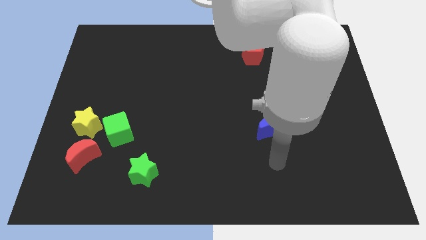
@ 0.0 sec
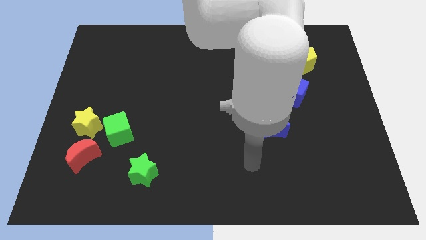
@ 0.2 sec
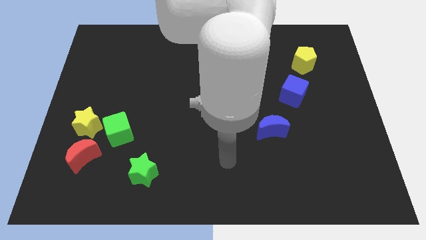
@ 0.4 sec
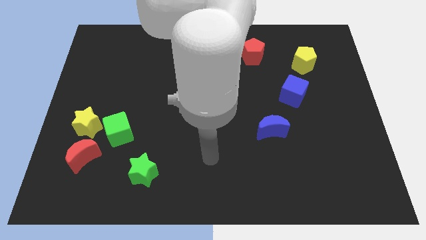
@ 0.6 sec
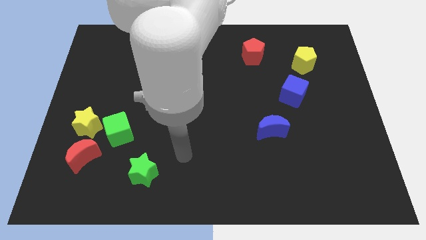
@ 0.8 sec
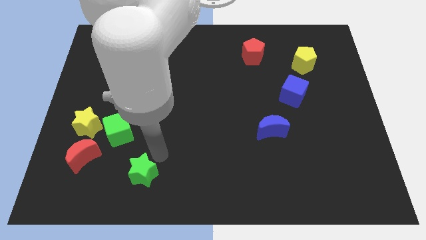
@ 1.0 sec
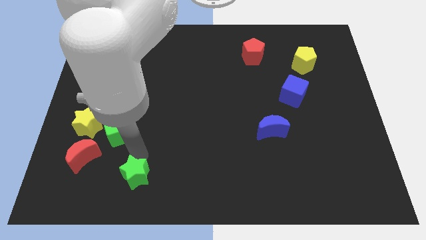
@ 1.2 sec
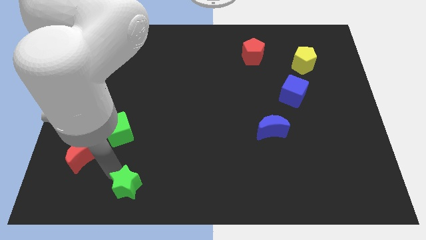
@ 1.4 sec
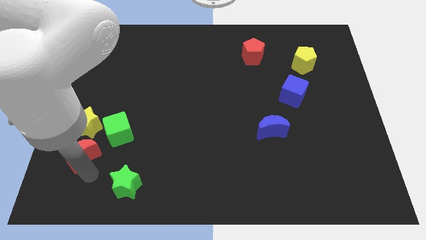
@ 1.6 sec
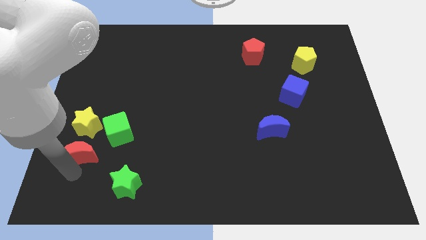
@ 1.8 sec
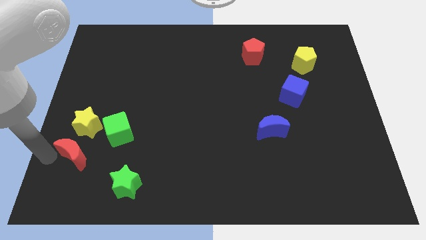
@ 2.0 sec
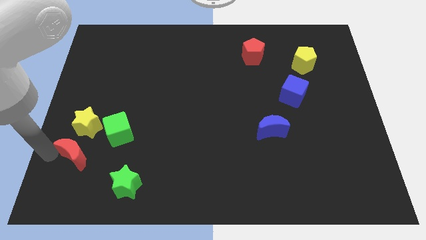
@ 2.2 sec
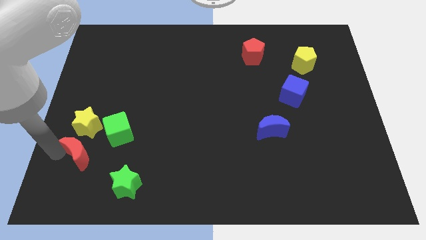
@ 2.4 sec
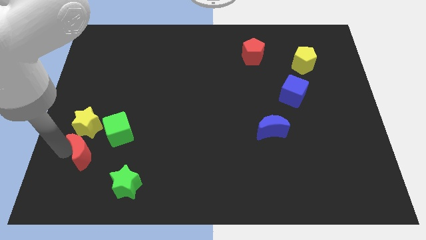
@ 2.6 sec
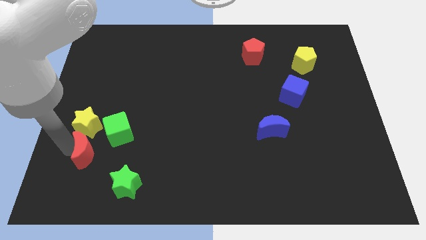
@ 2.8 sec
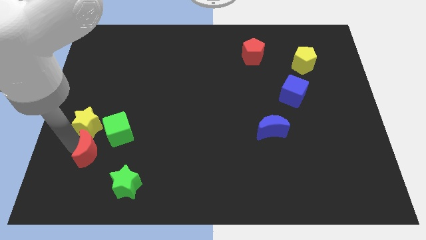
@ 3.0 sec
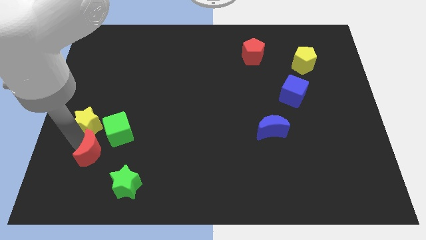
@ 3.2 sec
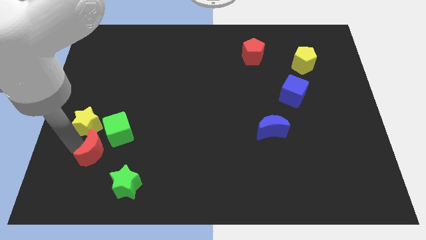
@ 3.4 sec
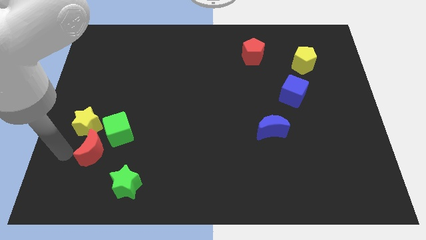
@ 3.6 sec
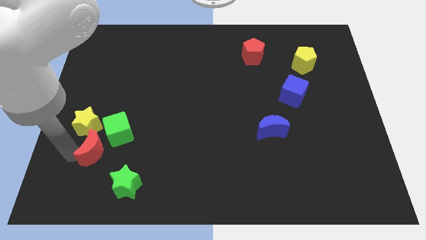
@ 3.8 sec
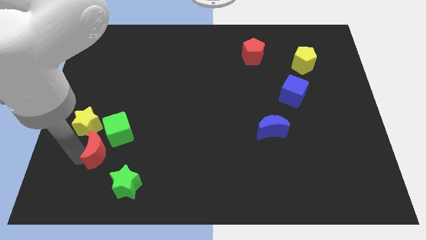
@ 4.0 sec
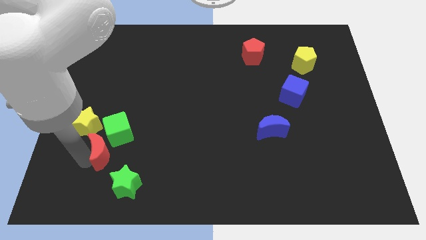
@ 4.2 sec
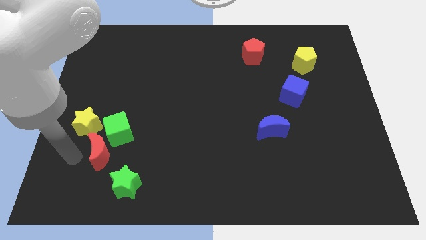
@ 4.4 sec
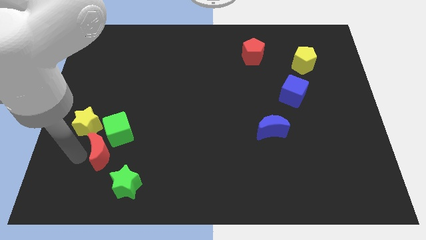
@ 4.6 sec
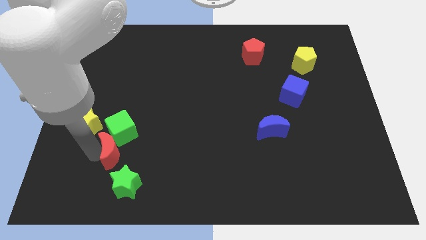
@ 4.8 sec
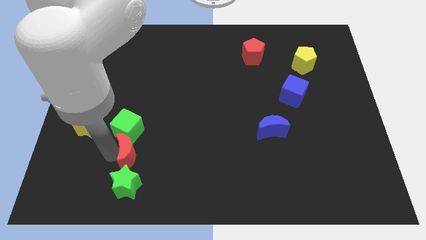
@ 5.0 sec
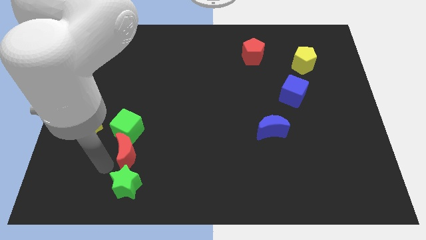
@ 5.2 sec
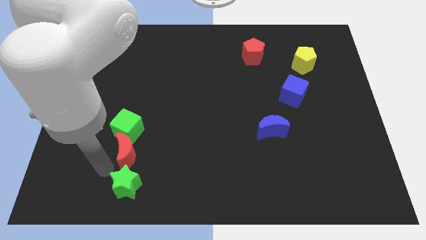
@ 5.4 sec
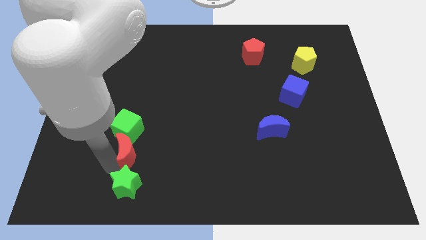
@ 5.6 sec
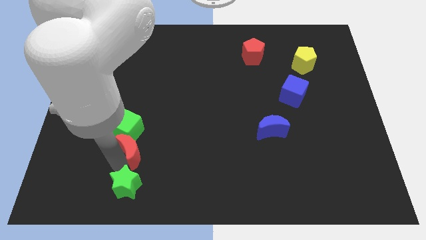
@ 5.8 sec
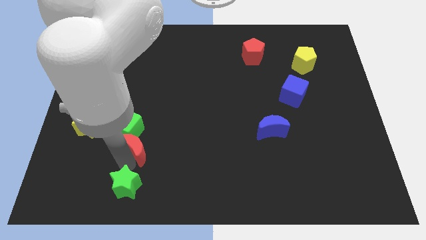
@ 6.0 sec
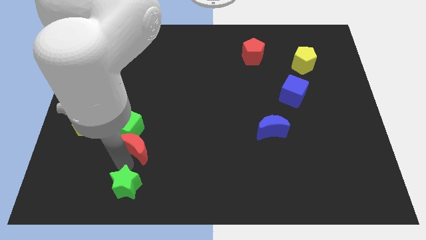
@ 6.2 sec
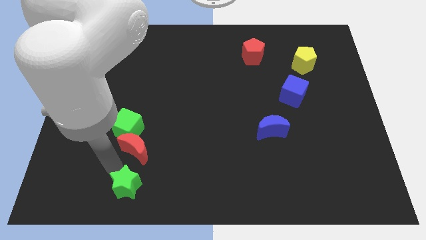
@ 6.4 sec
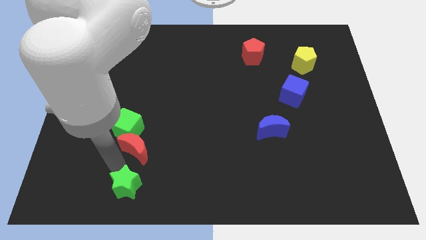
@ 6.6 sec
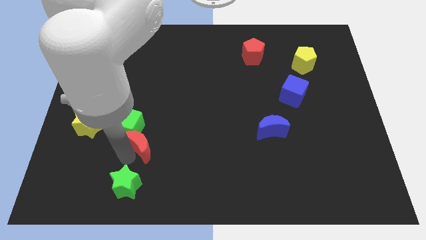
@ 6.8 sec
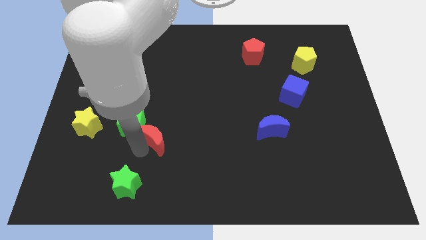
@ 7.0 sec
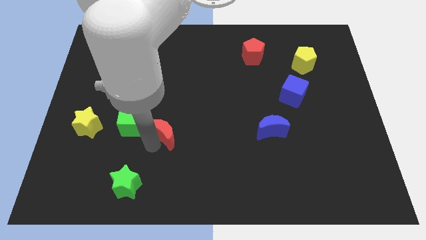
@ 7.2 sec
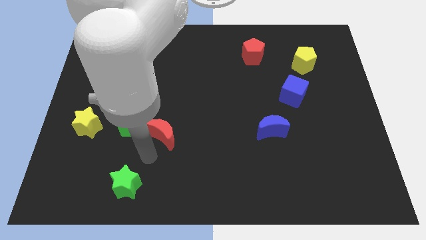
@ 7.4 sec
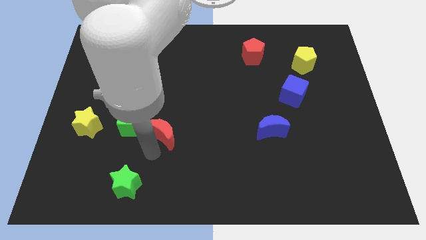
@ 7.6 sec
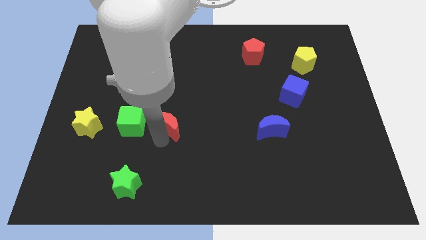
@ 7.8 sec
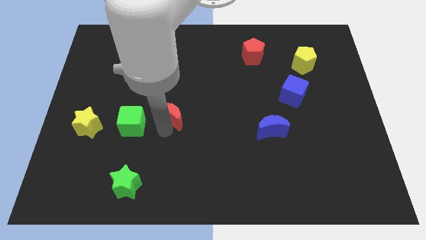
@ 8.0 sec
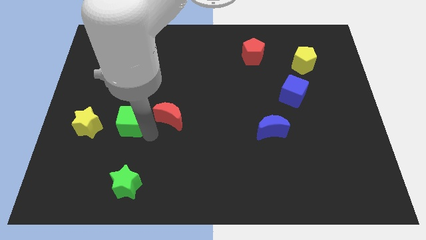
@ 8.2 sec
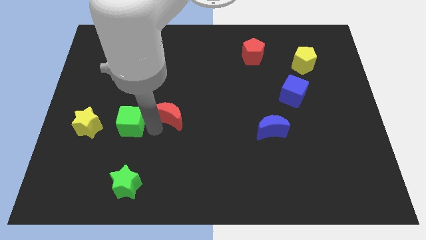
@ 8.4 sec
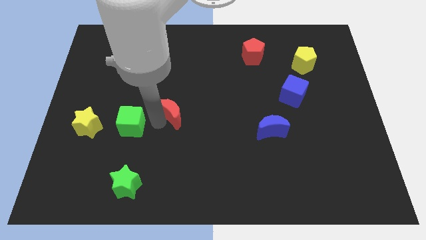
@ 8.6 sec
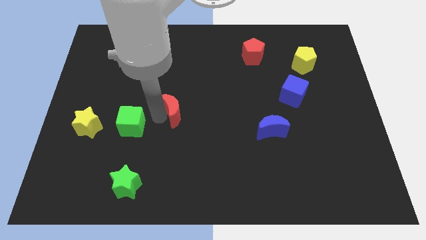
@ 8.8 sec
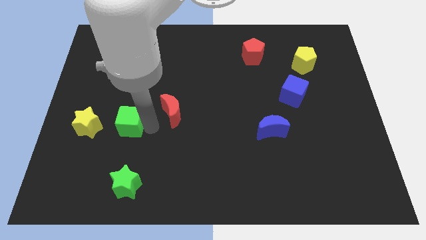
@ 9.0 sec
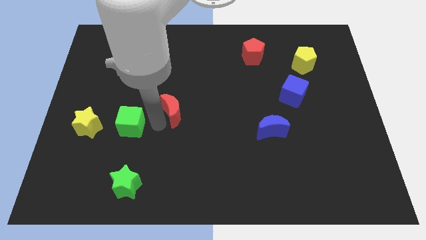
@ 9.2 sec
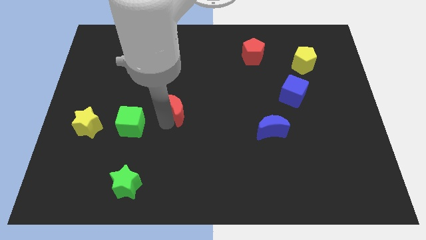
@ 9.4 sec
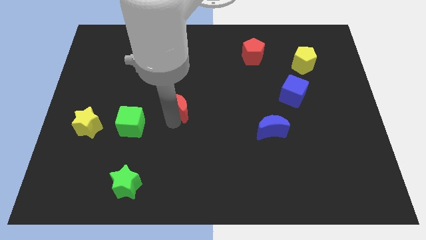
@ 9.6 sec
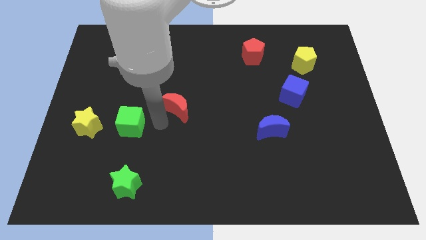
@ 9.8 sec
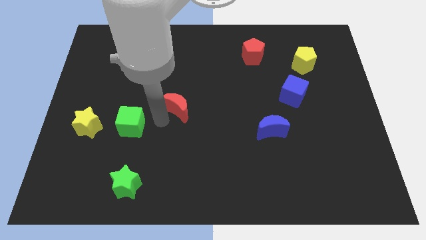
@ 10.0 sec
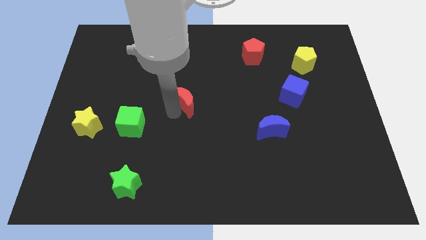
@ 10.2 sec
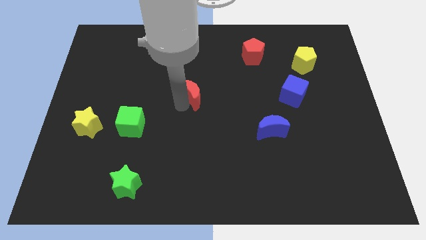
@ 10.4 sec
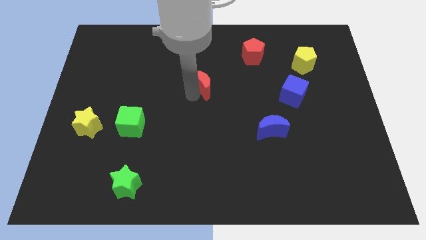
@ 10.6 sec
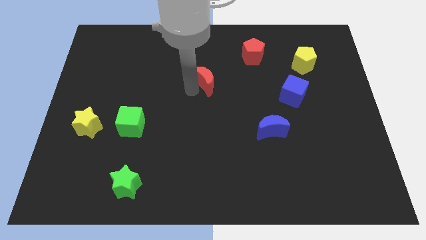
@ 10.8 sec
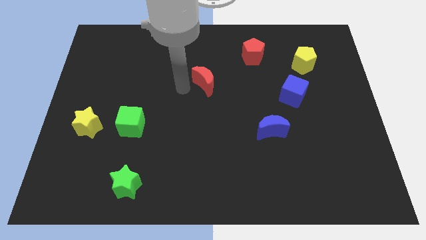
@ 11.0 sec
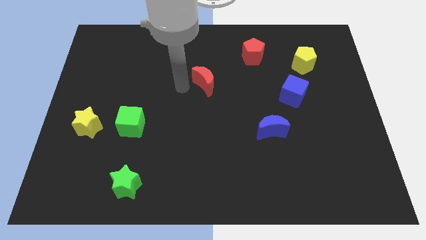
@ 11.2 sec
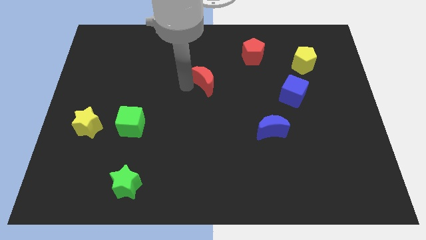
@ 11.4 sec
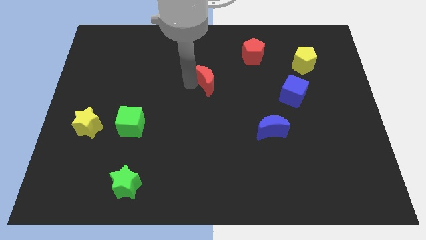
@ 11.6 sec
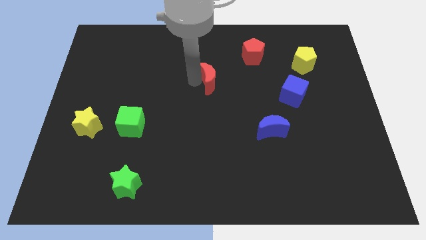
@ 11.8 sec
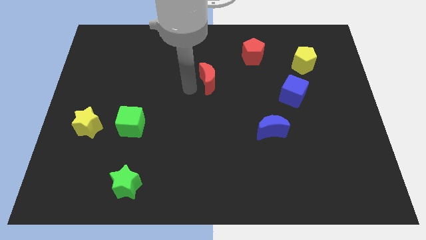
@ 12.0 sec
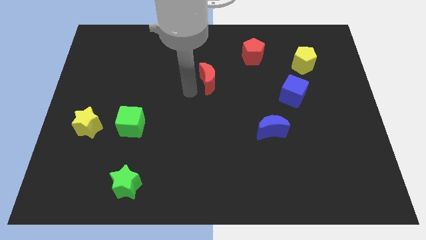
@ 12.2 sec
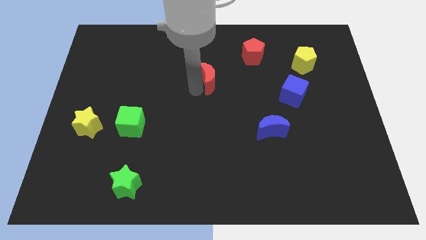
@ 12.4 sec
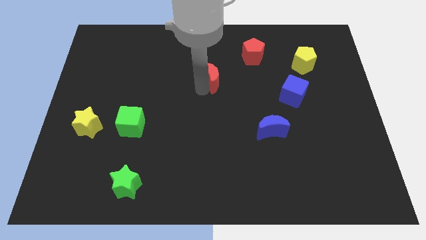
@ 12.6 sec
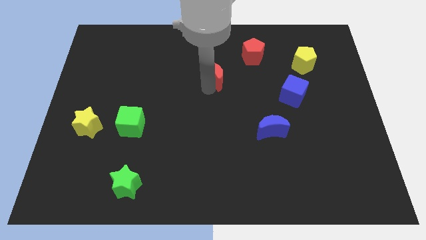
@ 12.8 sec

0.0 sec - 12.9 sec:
put the red moon to the bottom left of the red pentagon
